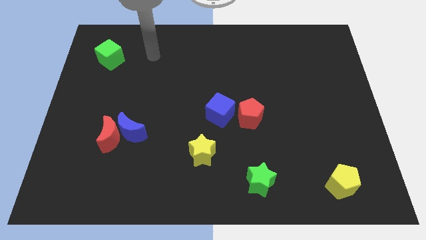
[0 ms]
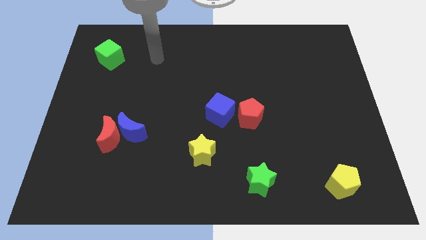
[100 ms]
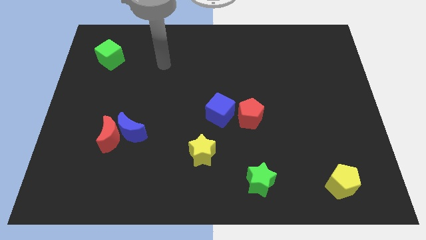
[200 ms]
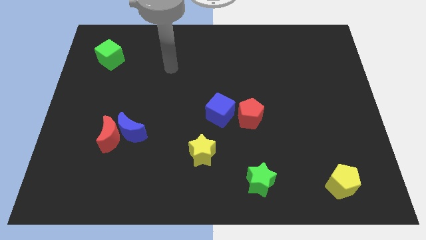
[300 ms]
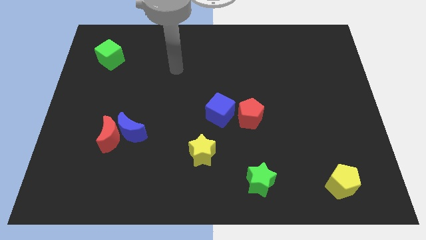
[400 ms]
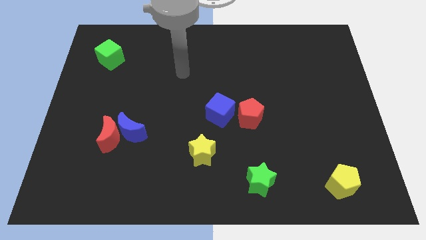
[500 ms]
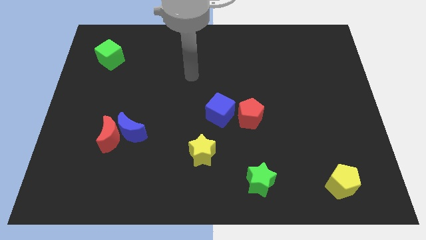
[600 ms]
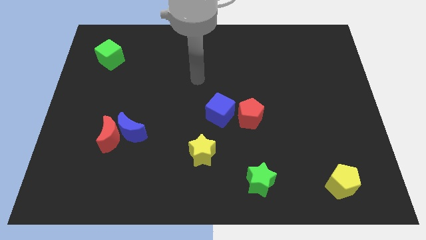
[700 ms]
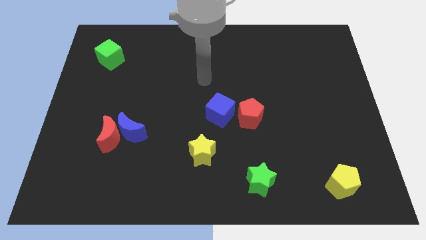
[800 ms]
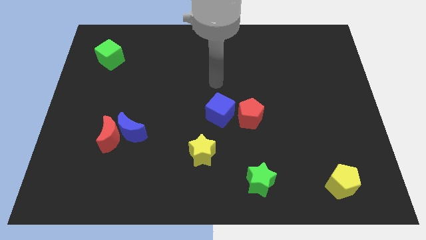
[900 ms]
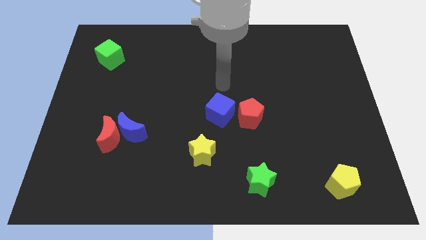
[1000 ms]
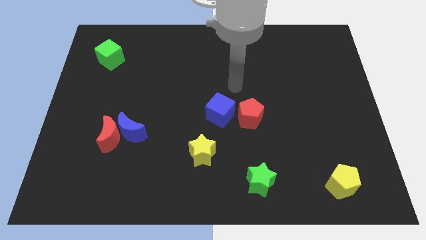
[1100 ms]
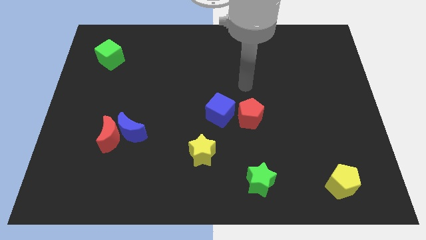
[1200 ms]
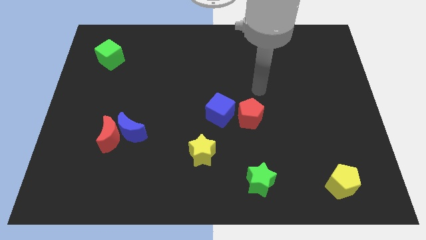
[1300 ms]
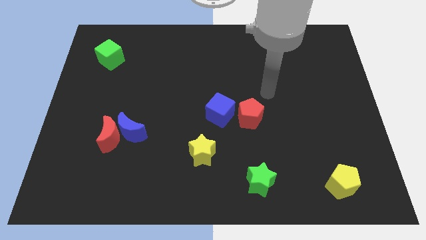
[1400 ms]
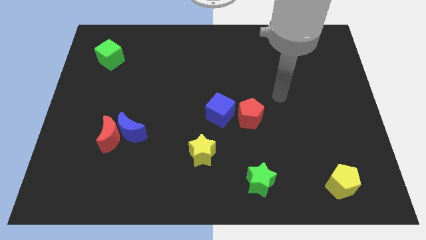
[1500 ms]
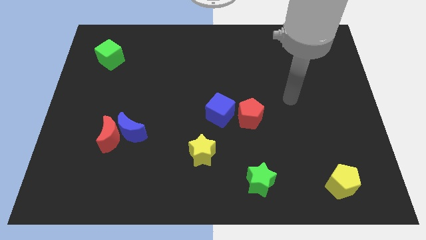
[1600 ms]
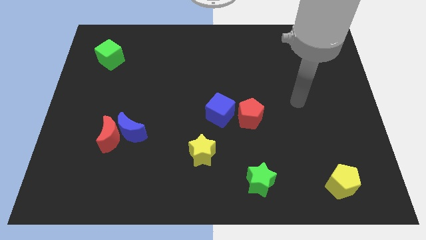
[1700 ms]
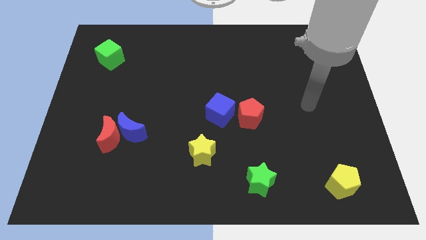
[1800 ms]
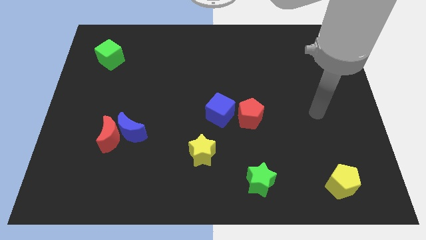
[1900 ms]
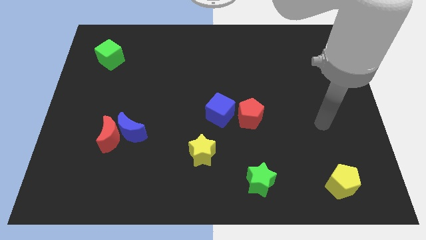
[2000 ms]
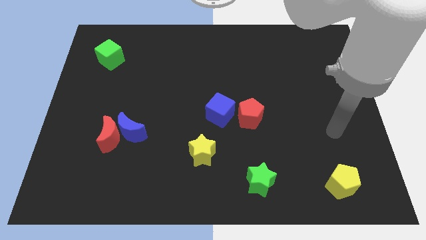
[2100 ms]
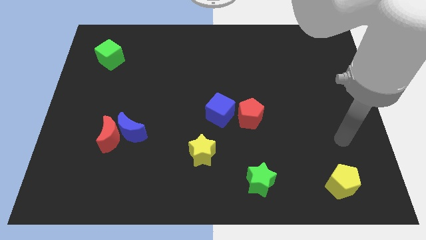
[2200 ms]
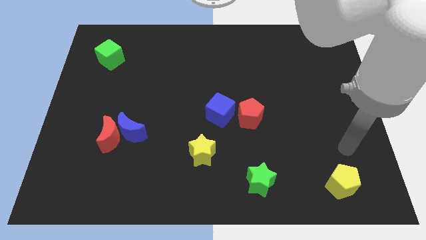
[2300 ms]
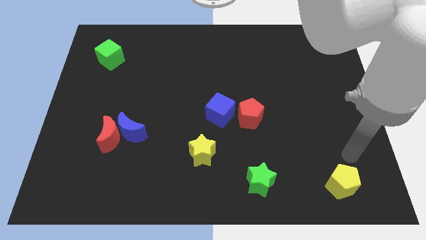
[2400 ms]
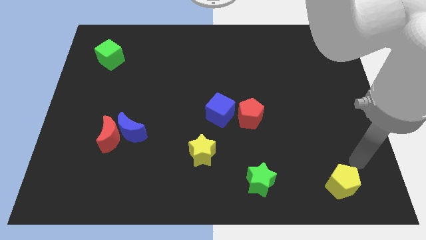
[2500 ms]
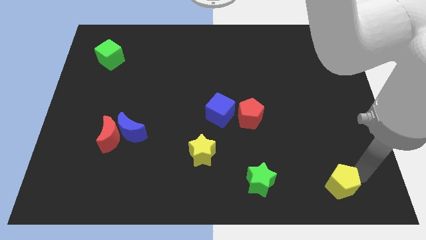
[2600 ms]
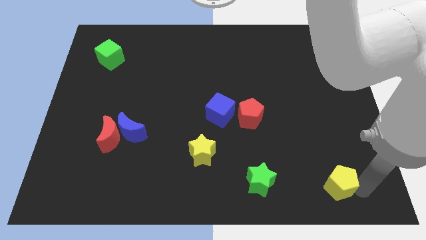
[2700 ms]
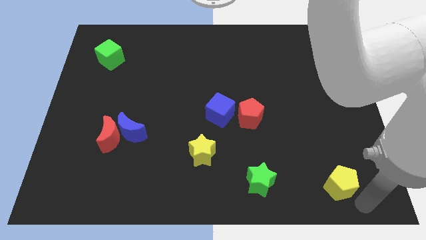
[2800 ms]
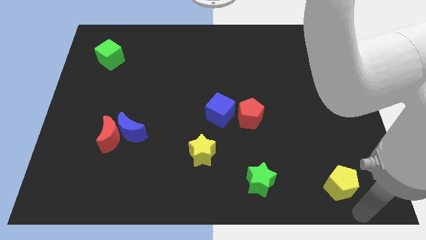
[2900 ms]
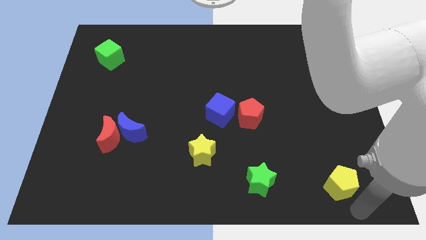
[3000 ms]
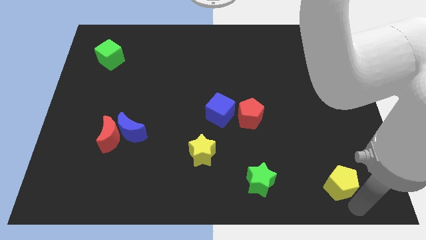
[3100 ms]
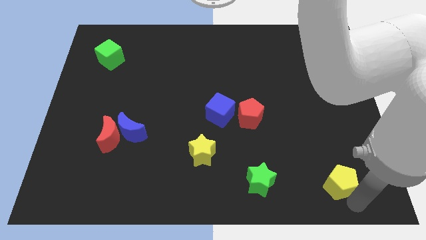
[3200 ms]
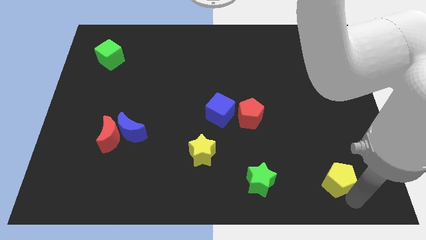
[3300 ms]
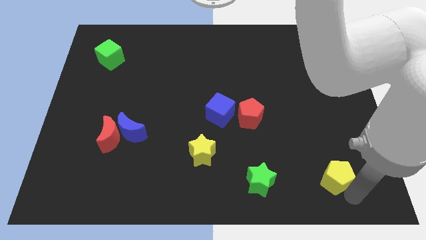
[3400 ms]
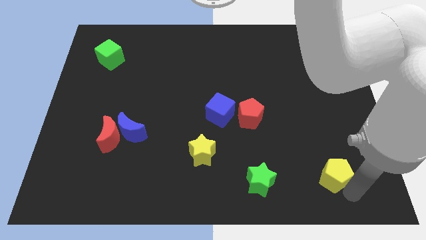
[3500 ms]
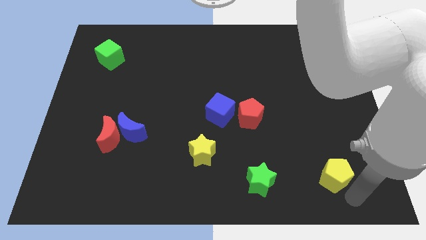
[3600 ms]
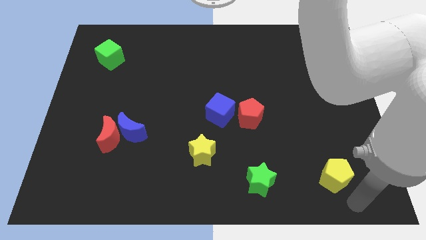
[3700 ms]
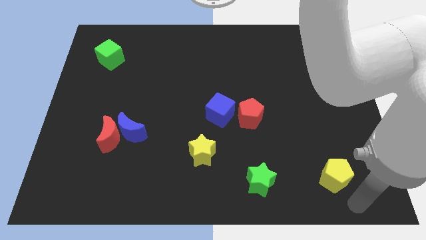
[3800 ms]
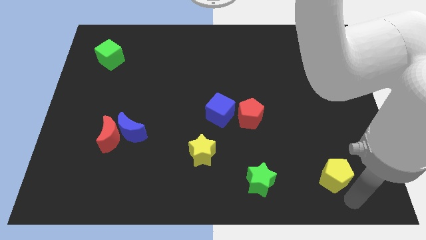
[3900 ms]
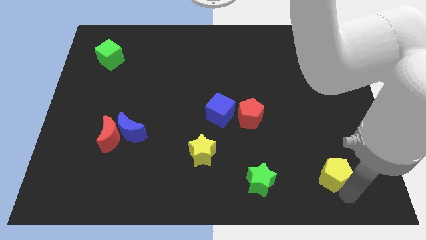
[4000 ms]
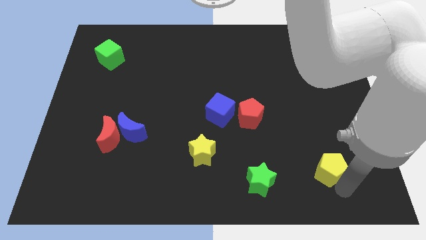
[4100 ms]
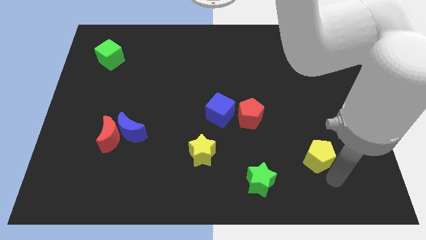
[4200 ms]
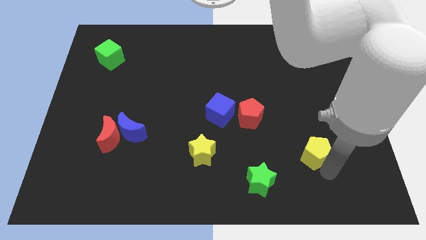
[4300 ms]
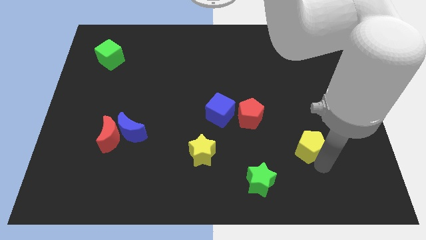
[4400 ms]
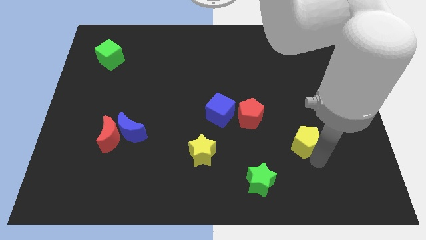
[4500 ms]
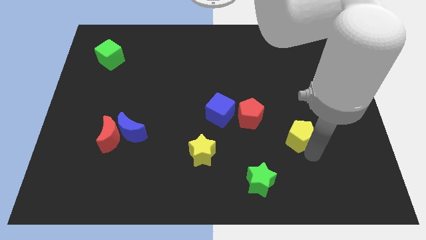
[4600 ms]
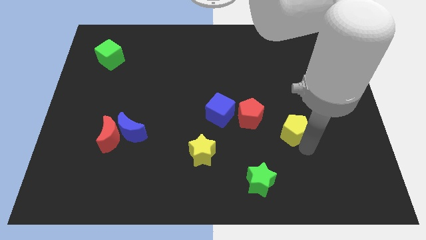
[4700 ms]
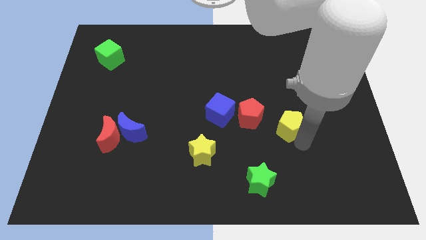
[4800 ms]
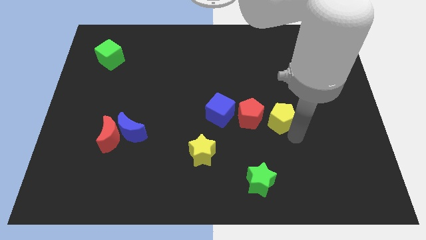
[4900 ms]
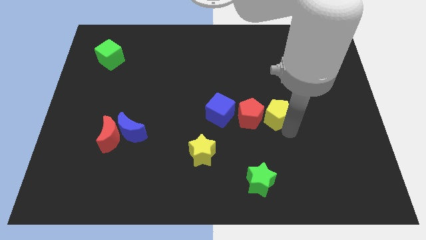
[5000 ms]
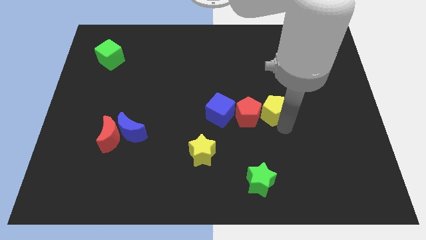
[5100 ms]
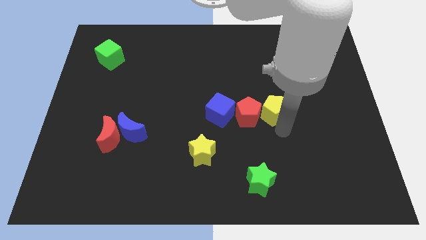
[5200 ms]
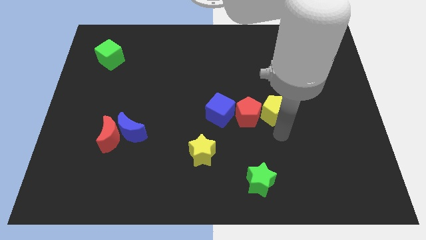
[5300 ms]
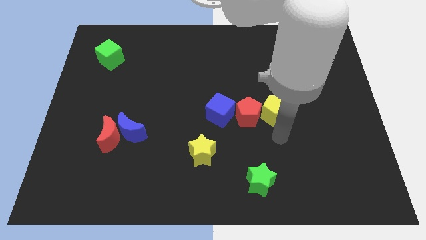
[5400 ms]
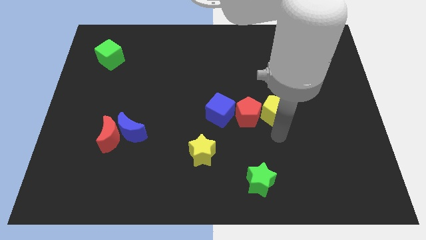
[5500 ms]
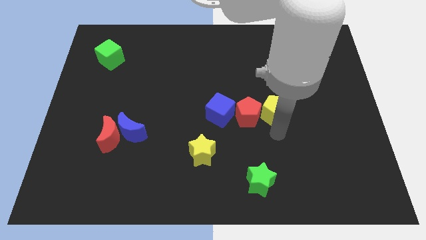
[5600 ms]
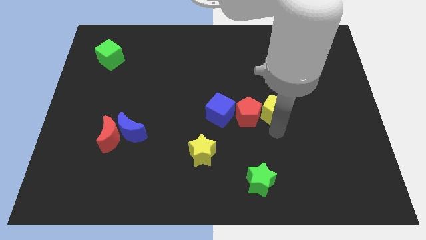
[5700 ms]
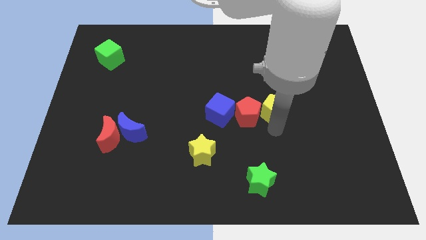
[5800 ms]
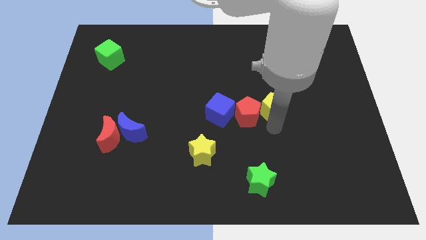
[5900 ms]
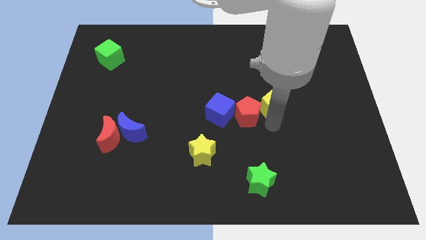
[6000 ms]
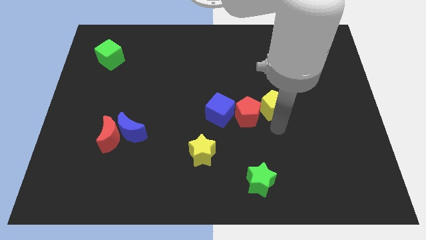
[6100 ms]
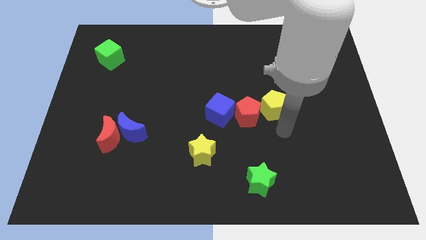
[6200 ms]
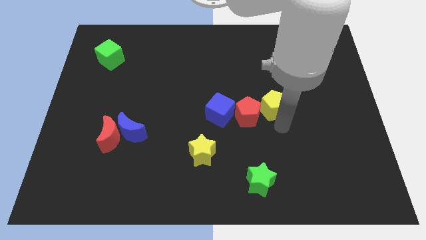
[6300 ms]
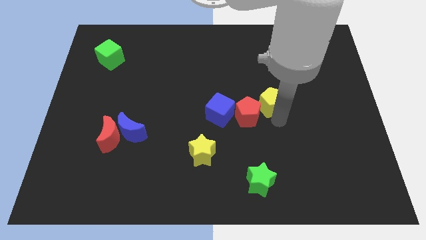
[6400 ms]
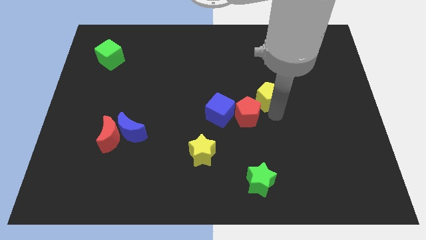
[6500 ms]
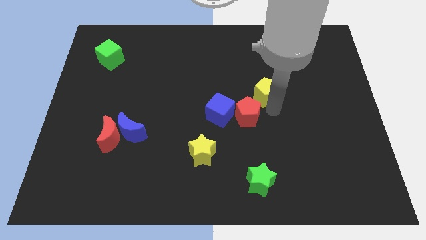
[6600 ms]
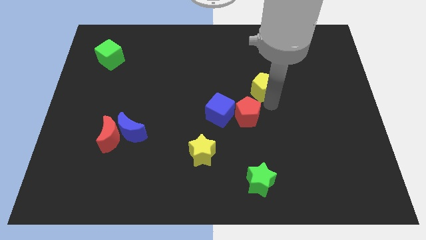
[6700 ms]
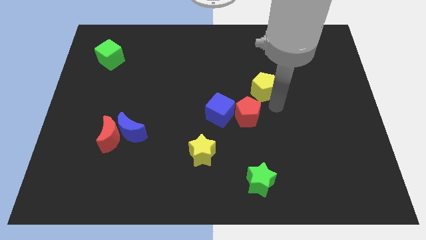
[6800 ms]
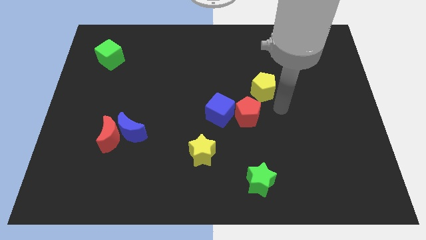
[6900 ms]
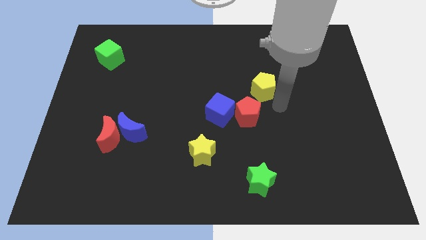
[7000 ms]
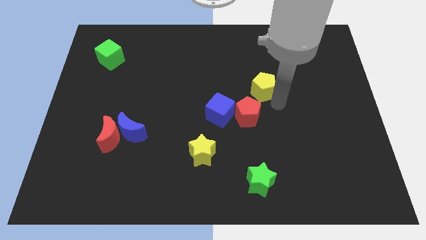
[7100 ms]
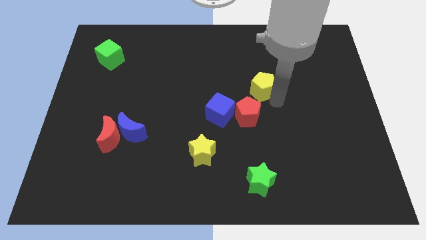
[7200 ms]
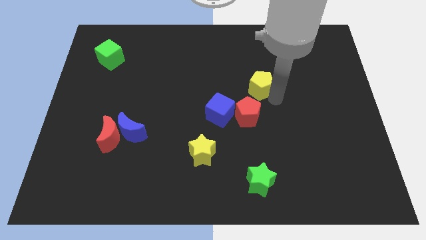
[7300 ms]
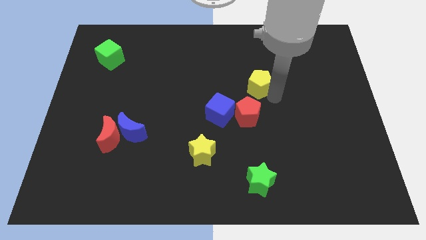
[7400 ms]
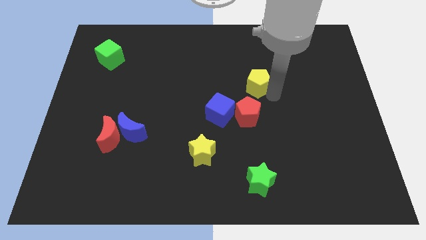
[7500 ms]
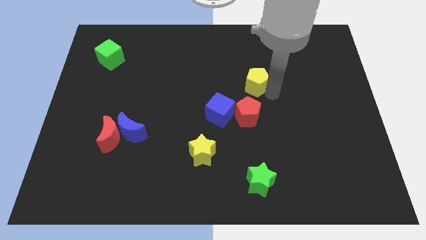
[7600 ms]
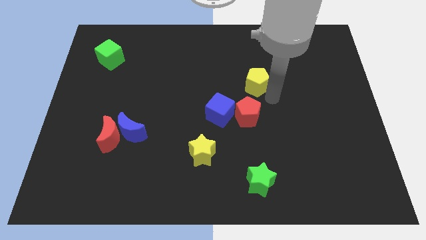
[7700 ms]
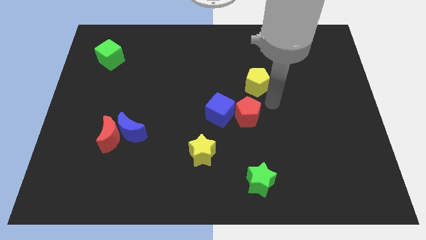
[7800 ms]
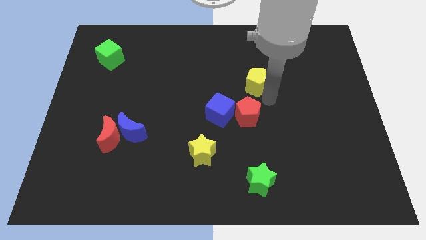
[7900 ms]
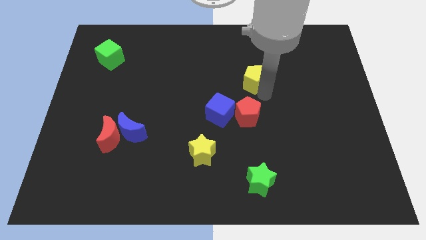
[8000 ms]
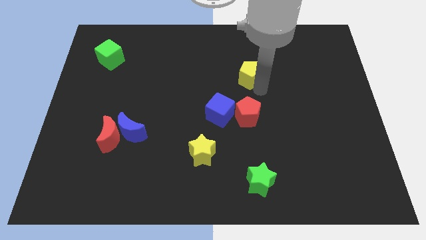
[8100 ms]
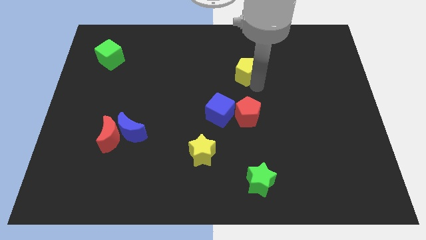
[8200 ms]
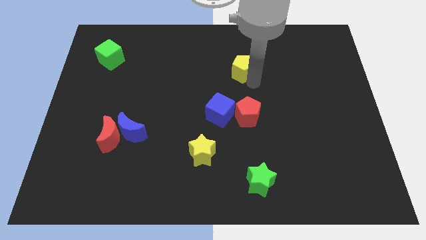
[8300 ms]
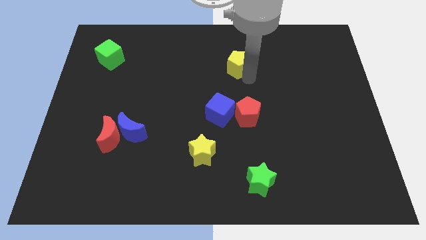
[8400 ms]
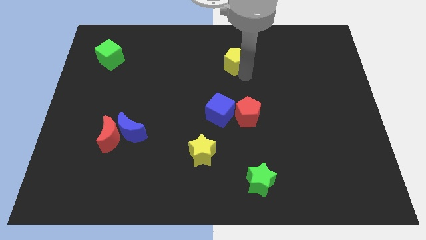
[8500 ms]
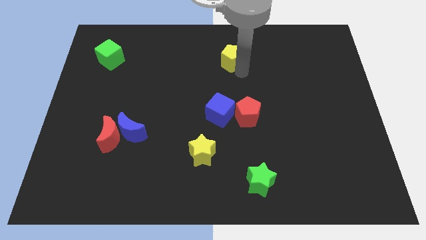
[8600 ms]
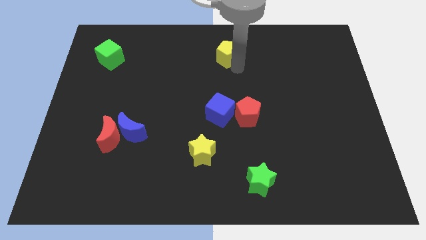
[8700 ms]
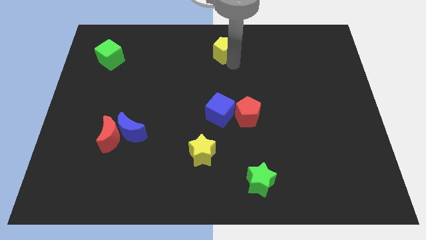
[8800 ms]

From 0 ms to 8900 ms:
push the yellow pentagon to the top side
